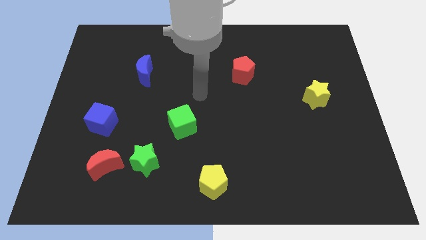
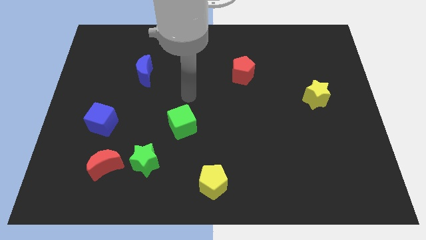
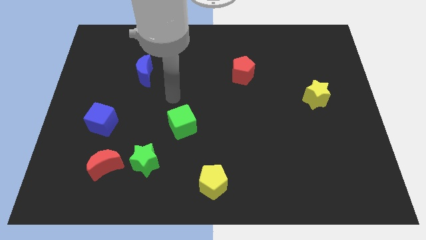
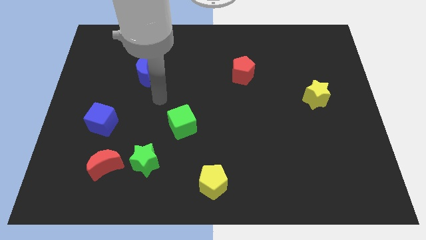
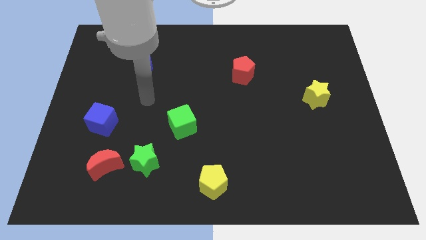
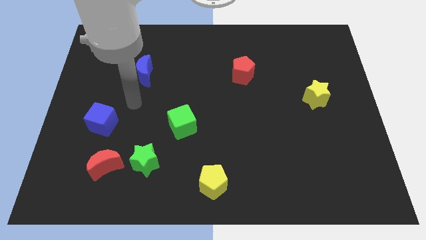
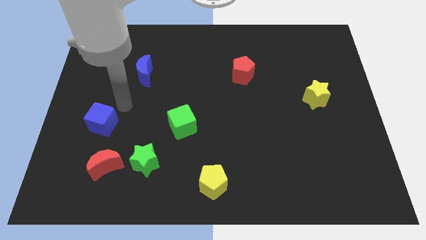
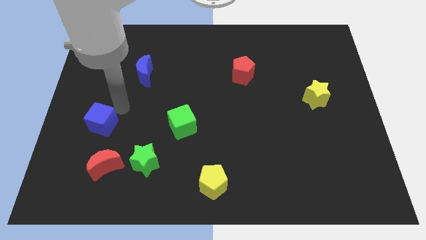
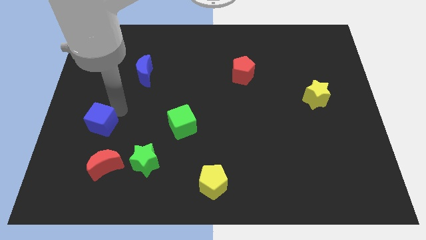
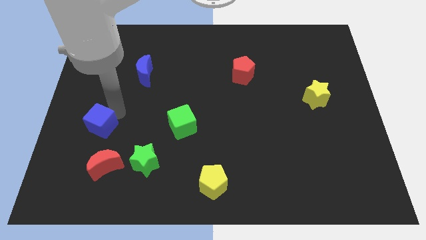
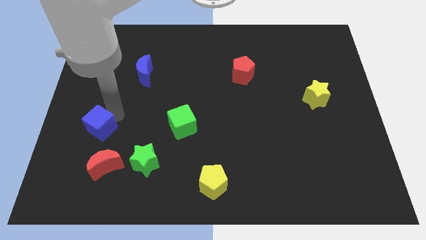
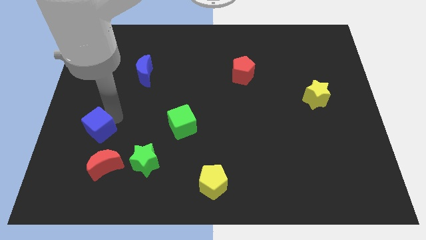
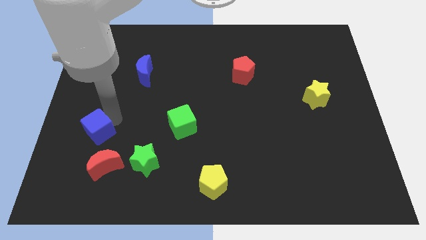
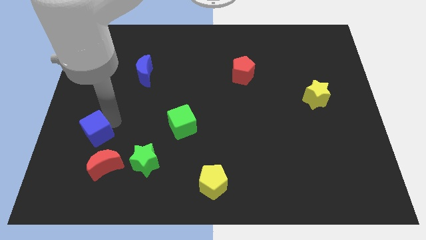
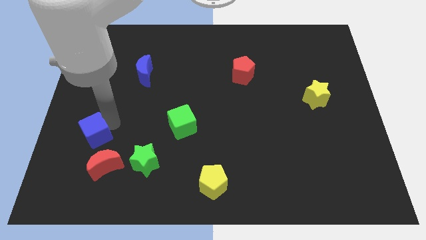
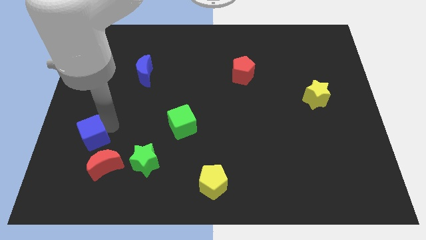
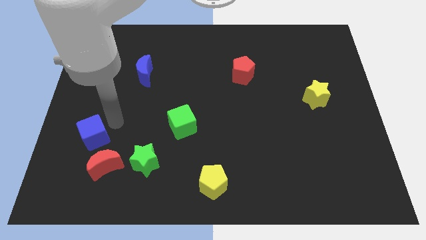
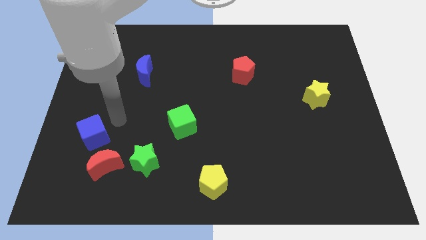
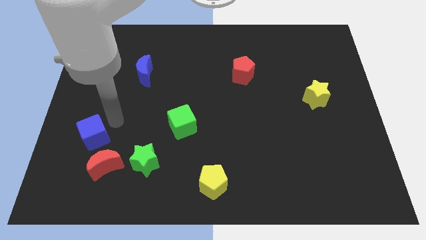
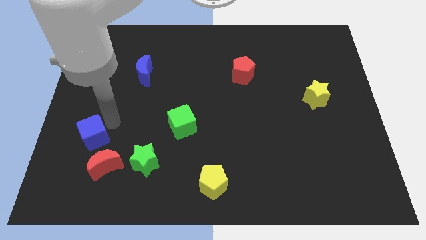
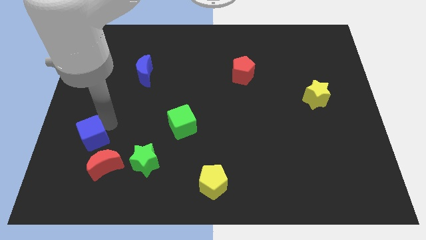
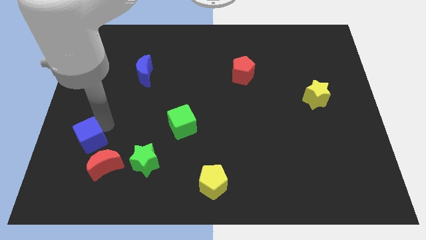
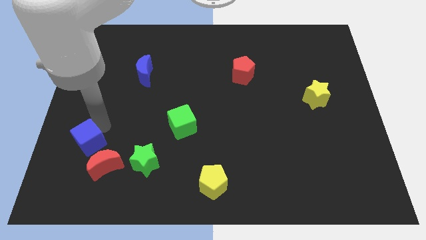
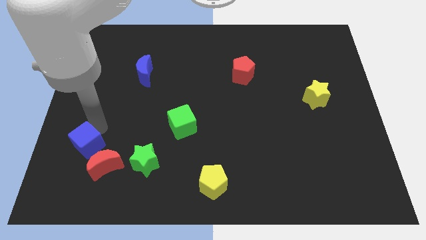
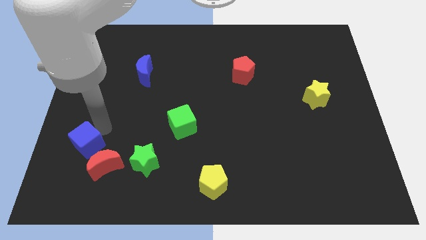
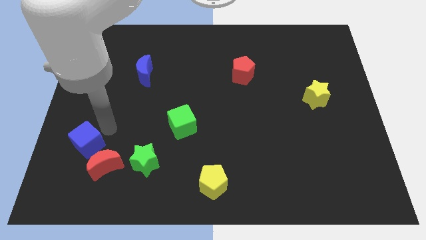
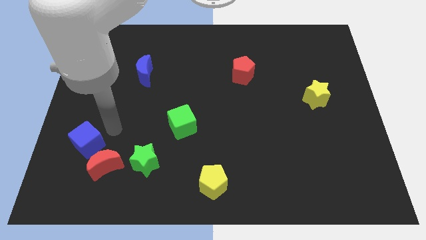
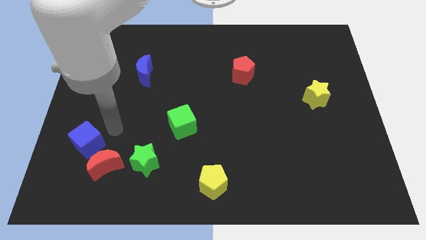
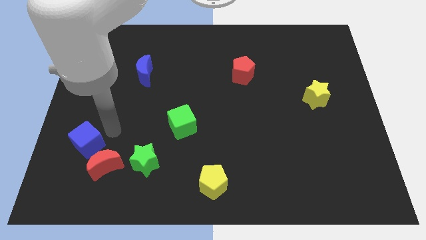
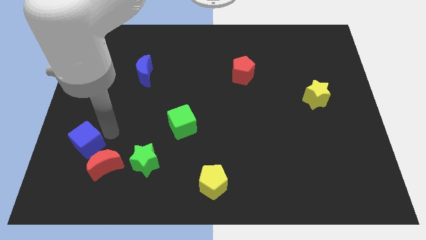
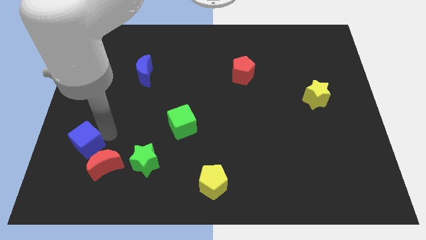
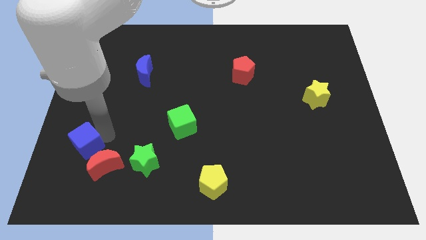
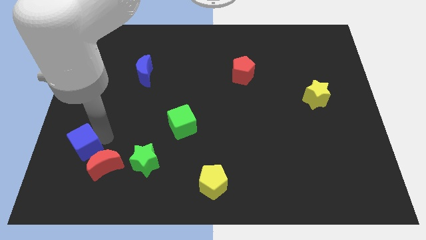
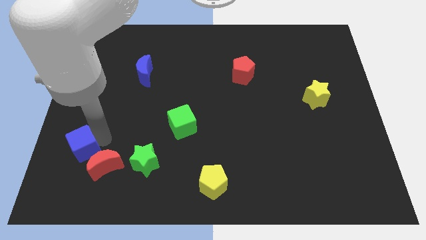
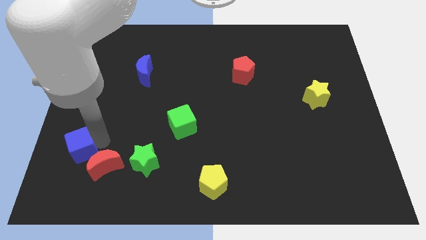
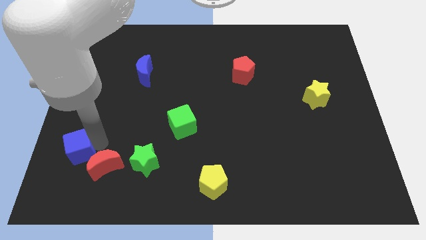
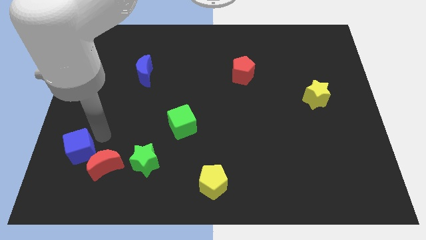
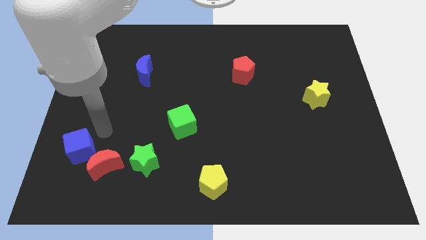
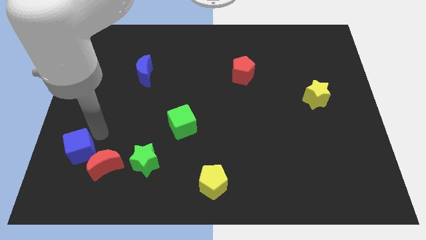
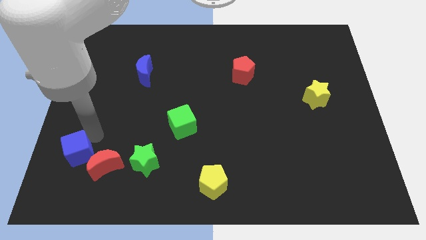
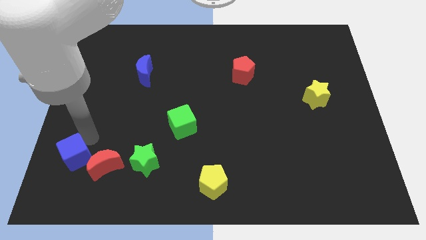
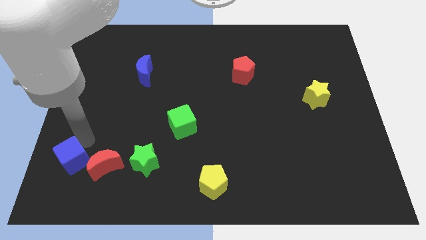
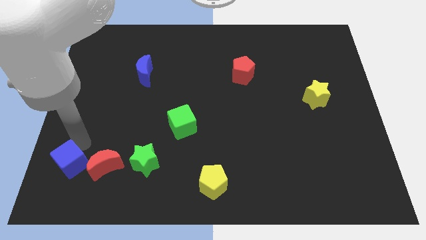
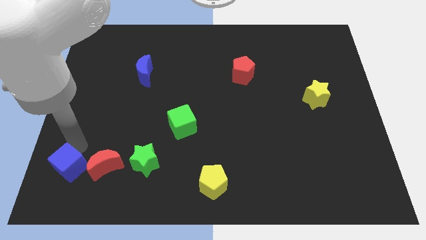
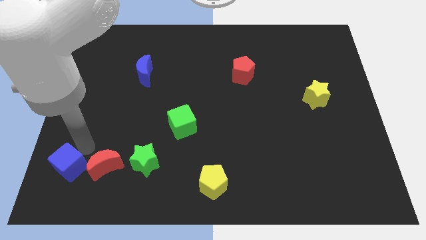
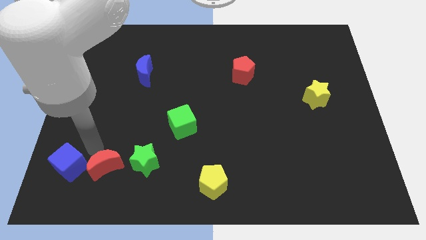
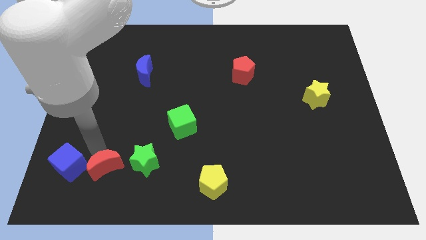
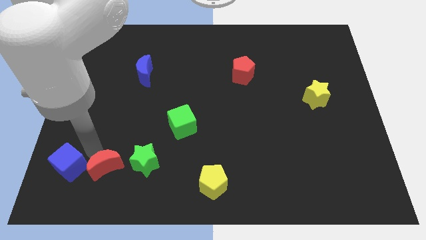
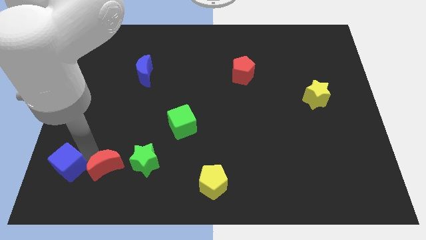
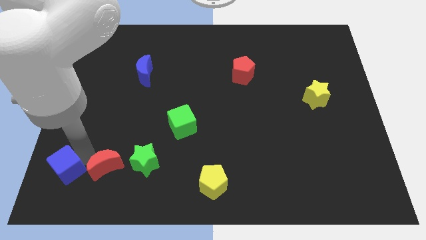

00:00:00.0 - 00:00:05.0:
slide the blue cube to the bottom left corner

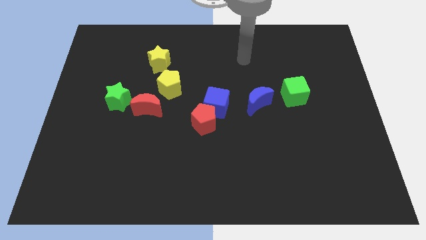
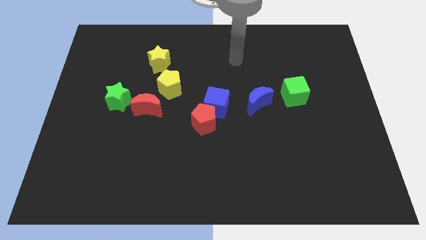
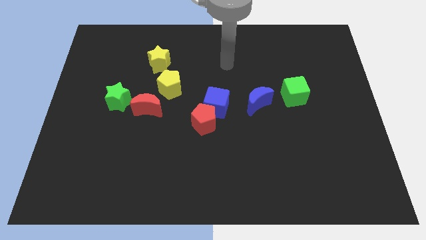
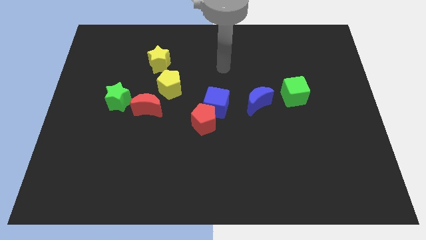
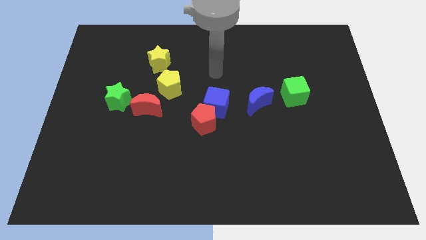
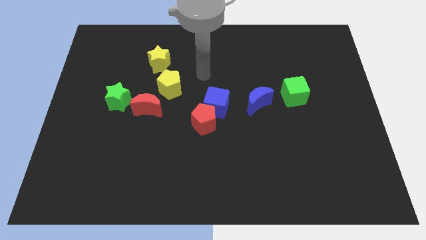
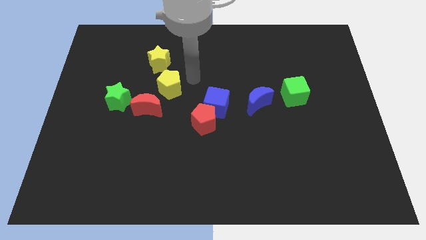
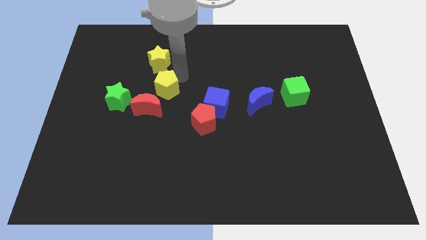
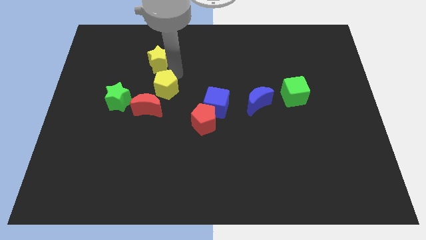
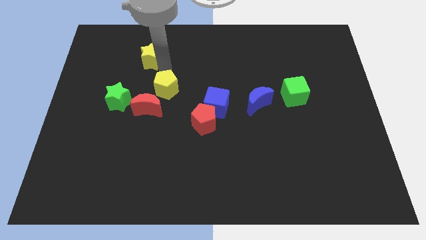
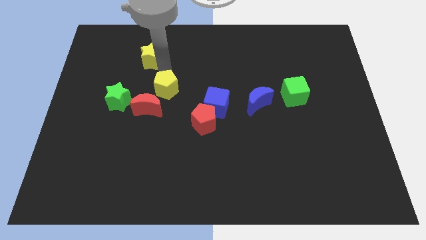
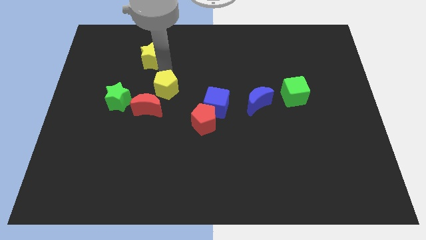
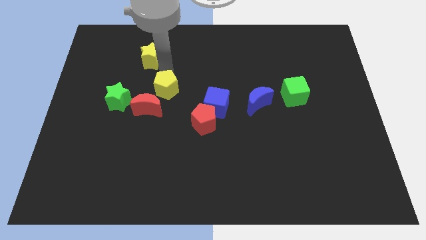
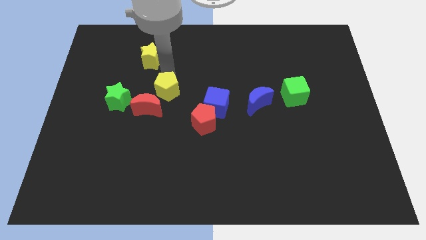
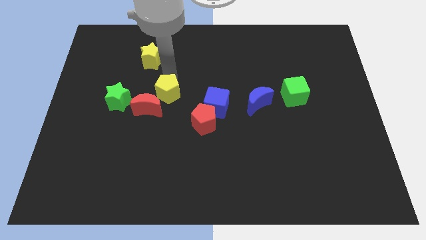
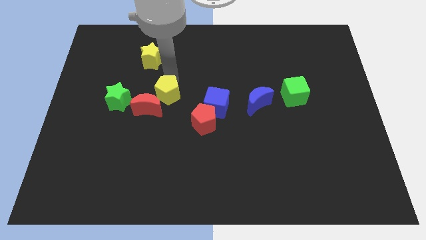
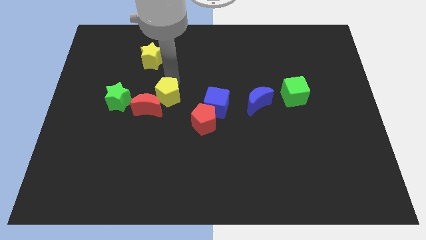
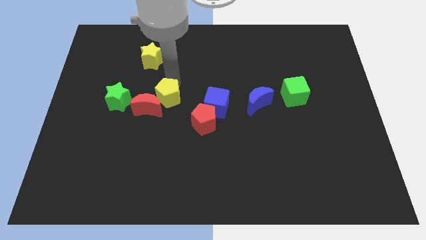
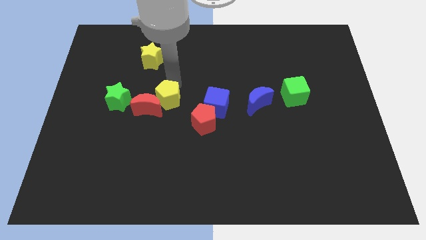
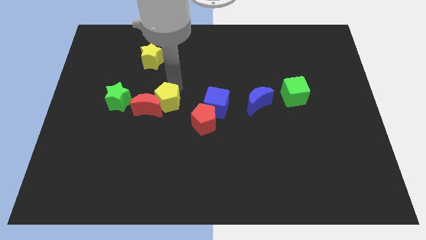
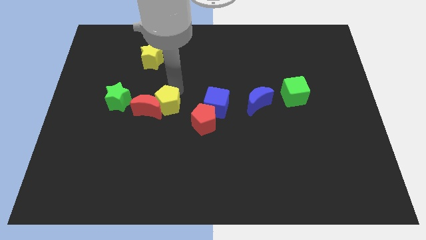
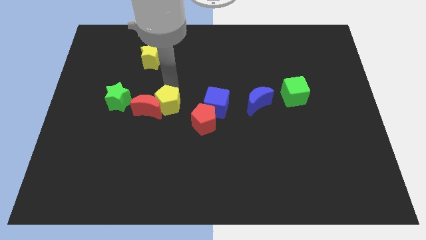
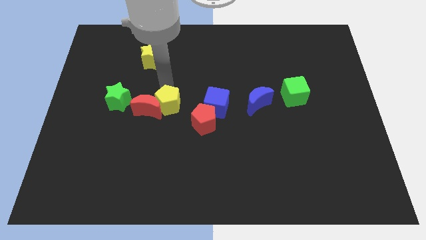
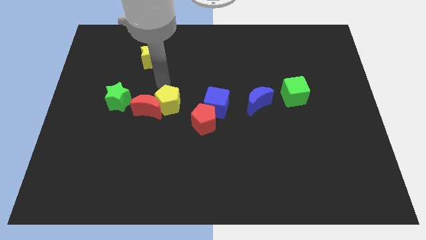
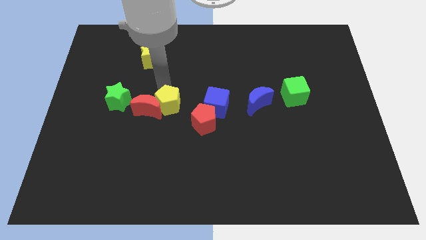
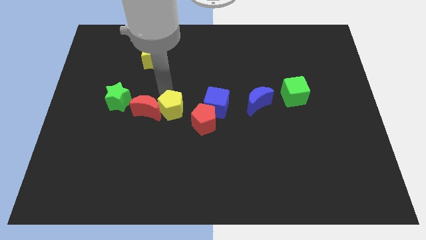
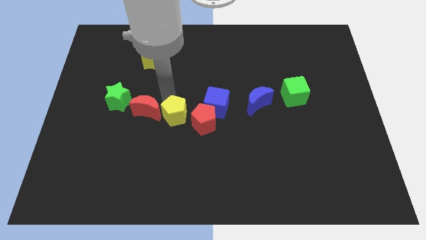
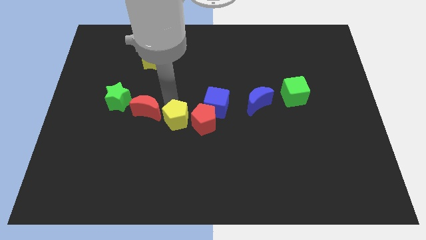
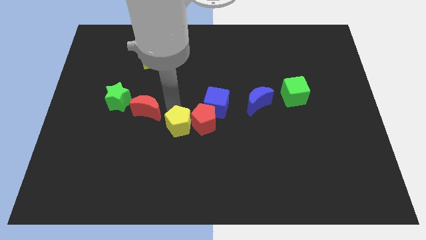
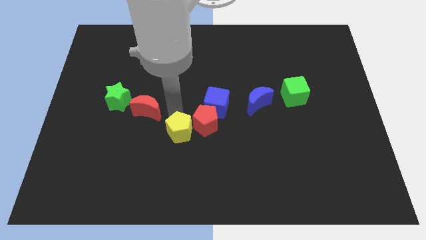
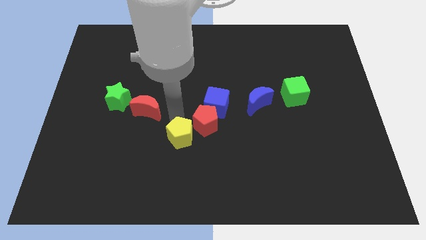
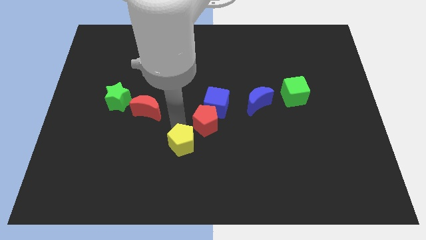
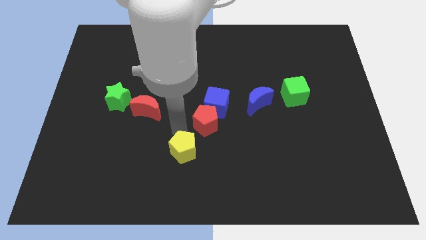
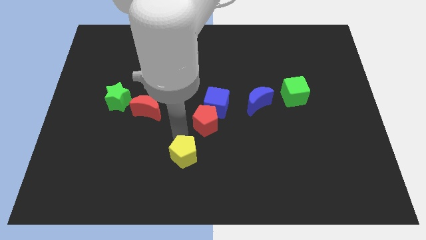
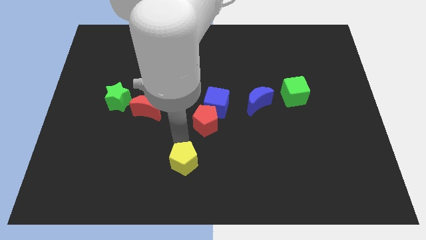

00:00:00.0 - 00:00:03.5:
put the yellow pentagon to the bottom side
